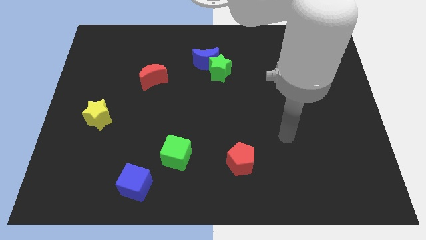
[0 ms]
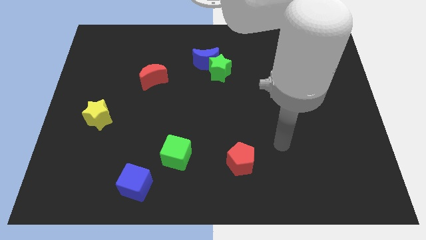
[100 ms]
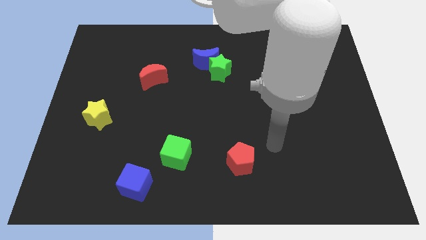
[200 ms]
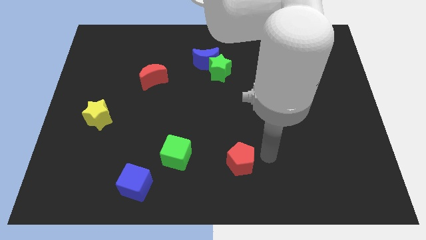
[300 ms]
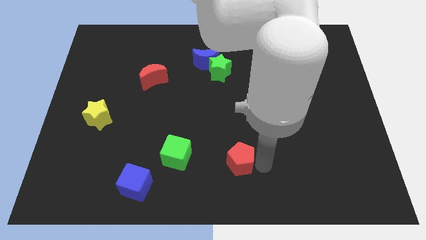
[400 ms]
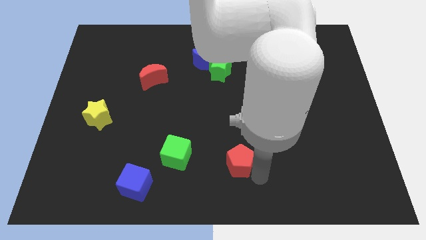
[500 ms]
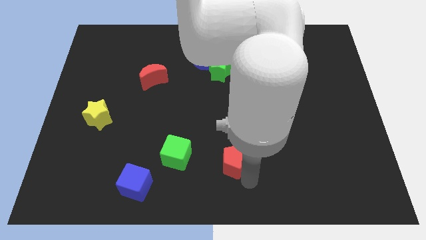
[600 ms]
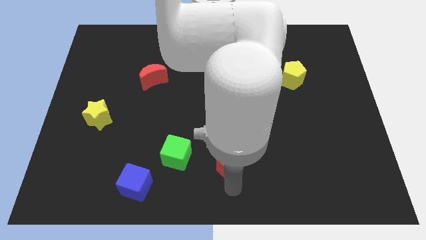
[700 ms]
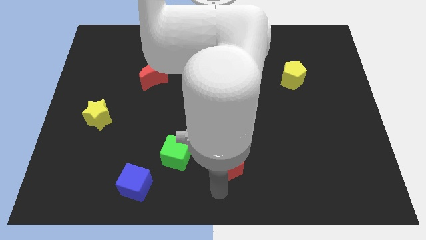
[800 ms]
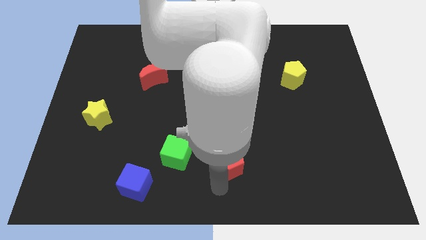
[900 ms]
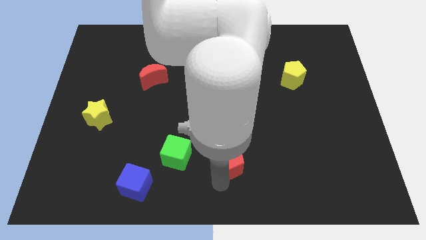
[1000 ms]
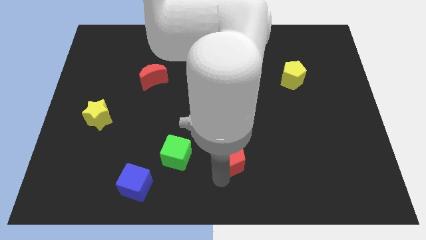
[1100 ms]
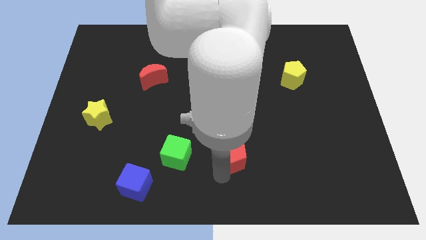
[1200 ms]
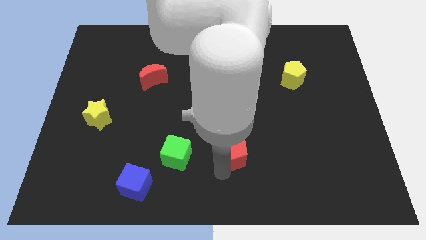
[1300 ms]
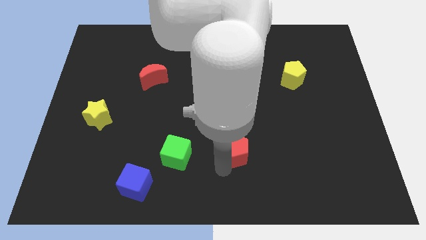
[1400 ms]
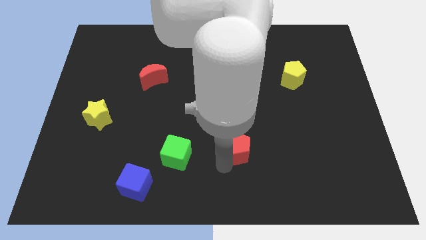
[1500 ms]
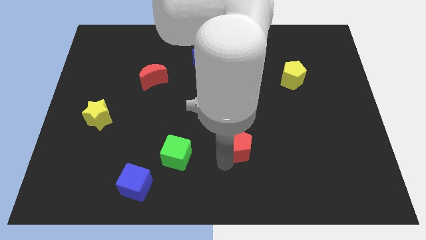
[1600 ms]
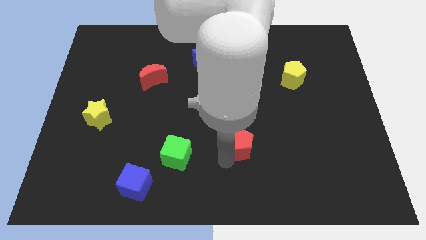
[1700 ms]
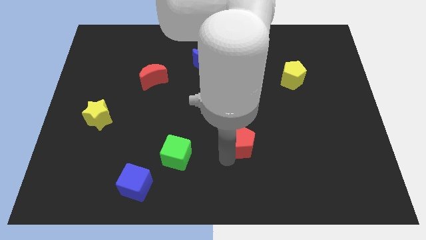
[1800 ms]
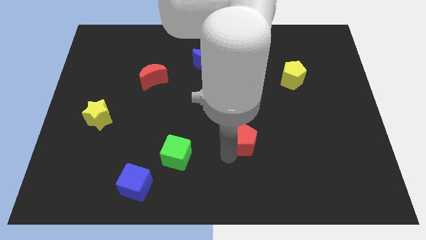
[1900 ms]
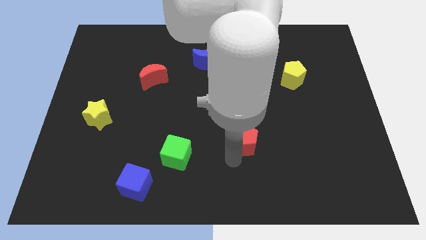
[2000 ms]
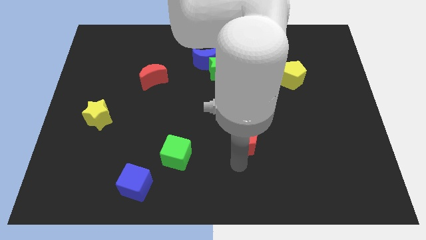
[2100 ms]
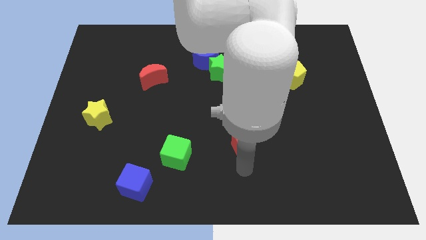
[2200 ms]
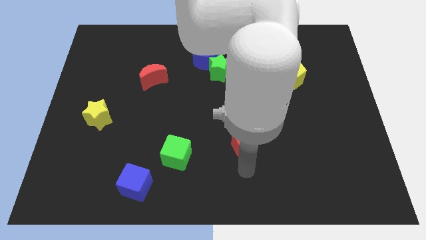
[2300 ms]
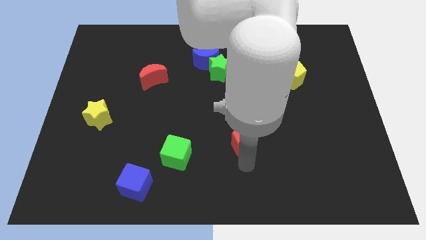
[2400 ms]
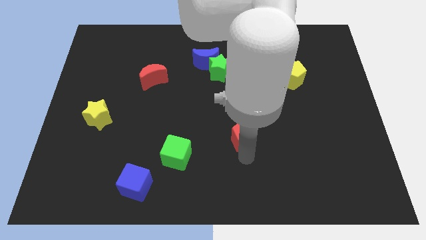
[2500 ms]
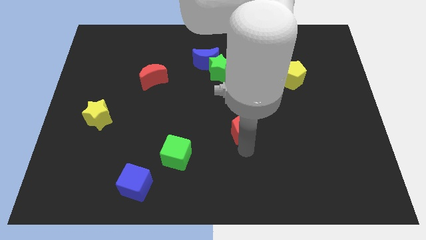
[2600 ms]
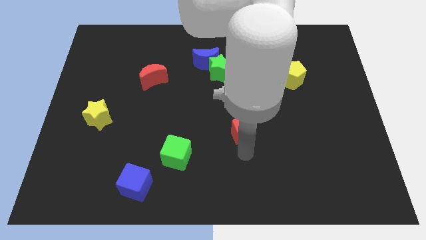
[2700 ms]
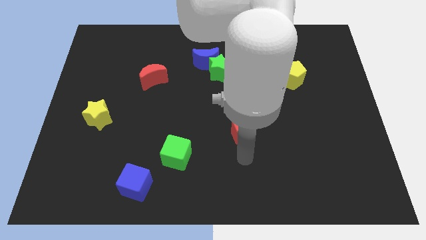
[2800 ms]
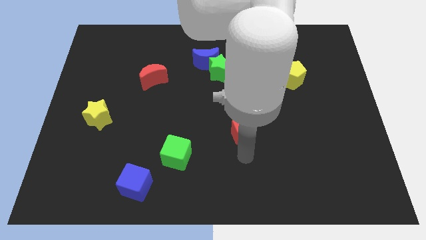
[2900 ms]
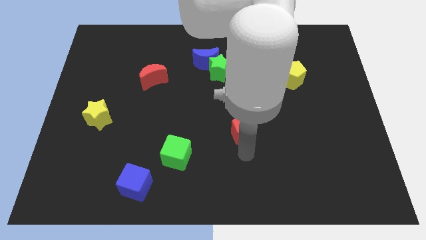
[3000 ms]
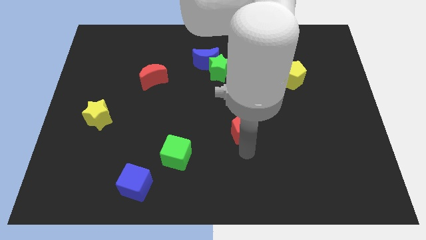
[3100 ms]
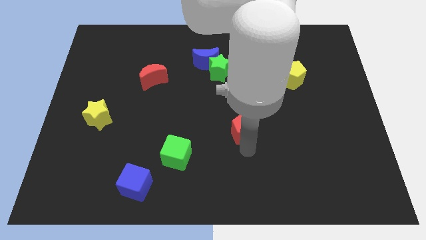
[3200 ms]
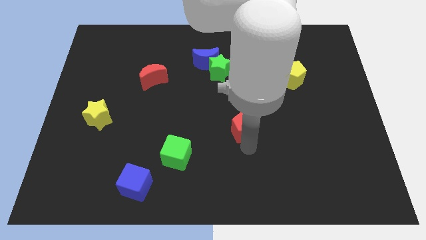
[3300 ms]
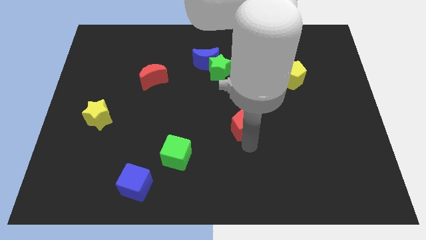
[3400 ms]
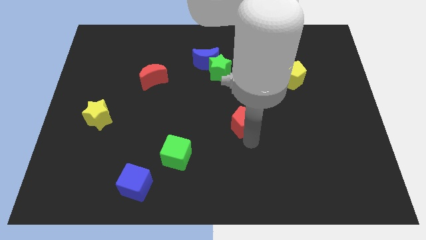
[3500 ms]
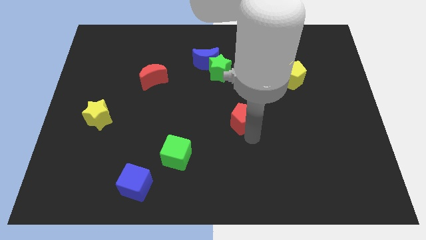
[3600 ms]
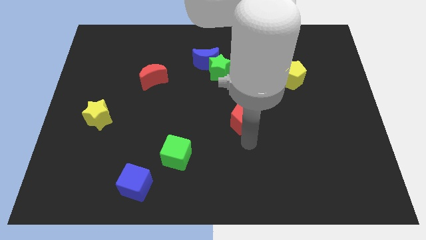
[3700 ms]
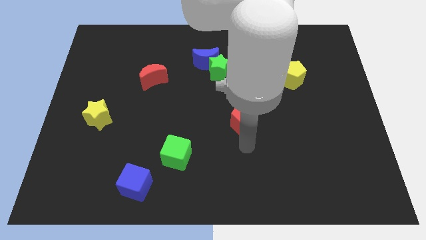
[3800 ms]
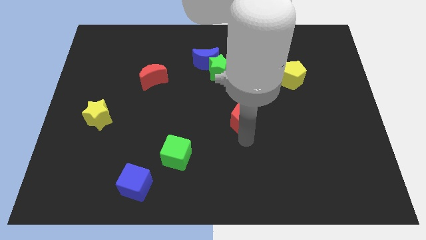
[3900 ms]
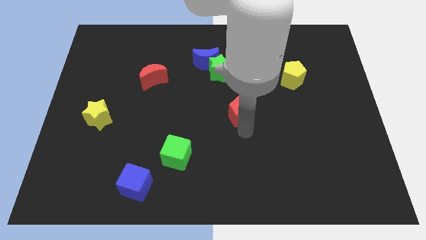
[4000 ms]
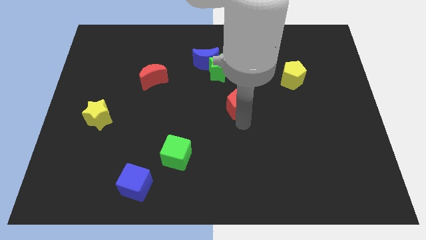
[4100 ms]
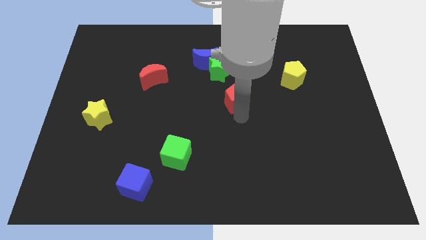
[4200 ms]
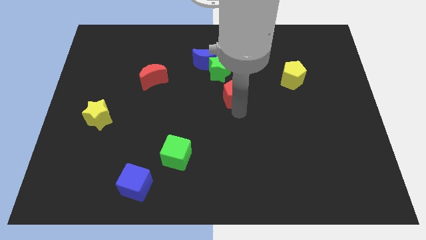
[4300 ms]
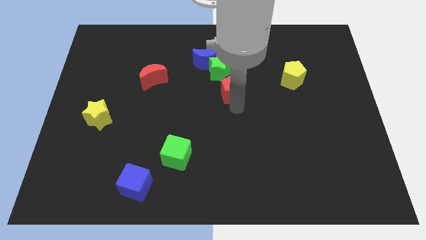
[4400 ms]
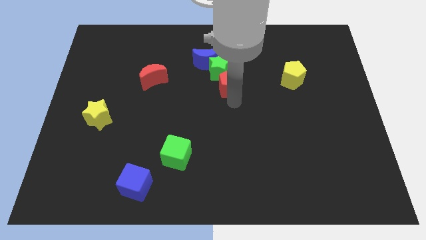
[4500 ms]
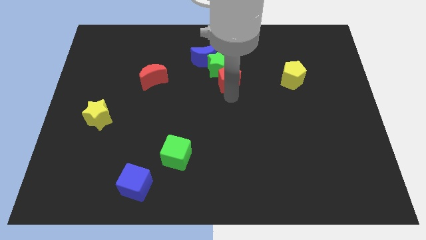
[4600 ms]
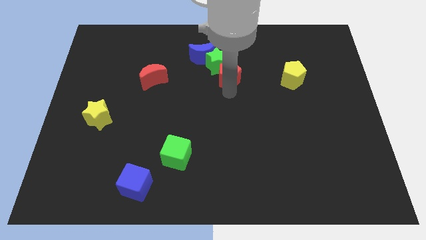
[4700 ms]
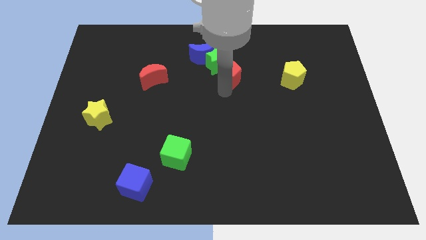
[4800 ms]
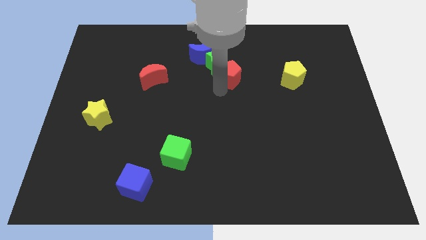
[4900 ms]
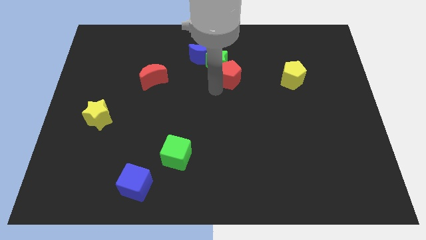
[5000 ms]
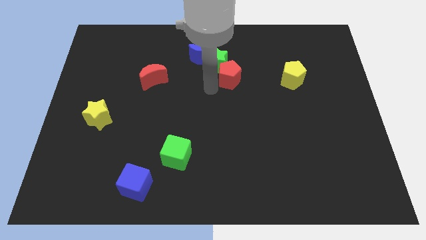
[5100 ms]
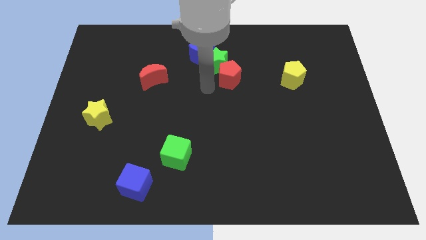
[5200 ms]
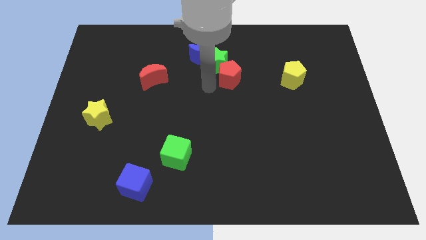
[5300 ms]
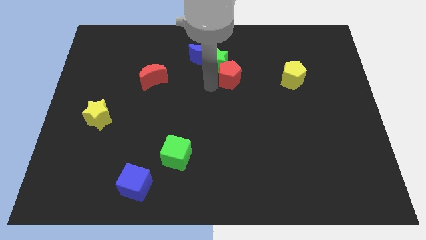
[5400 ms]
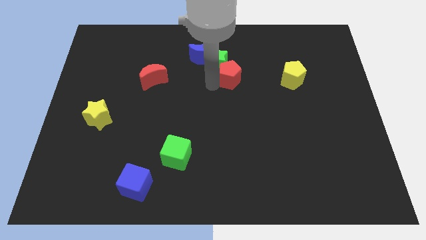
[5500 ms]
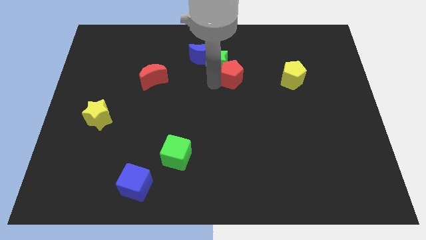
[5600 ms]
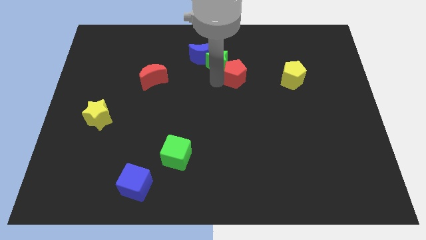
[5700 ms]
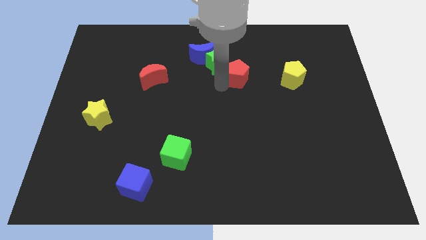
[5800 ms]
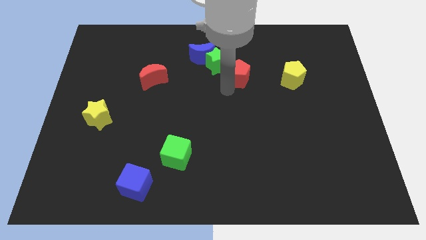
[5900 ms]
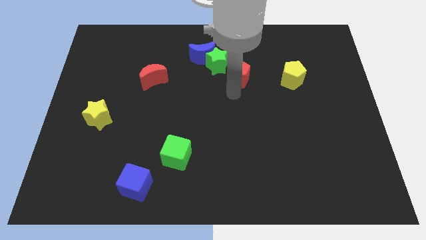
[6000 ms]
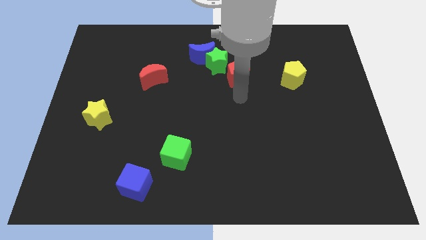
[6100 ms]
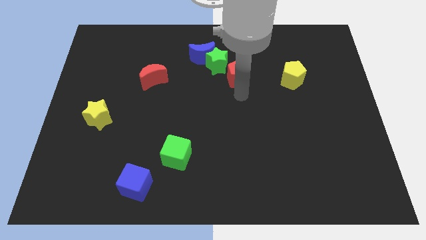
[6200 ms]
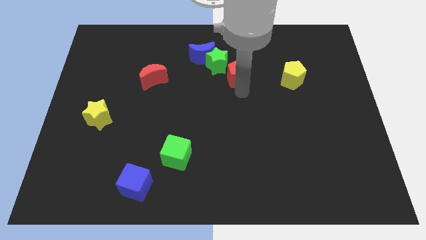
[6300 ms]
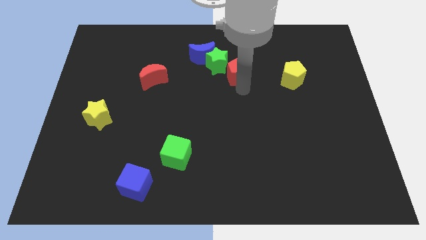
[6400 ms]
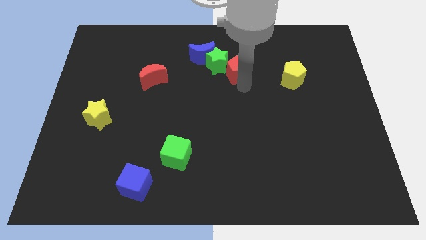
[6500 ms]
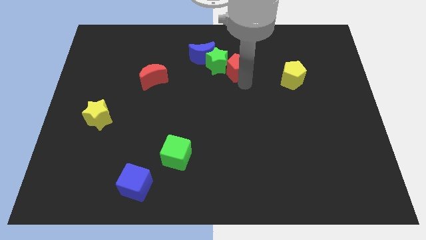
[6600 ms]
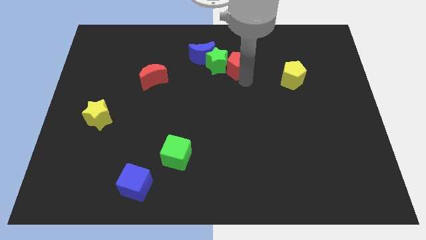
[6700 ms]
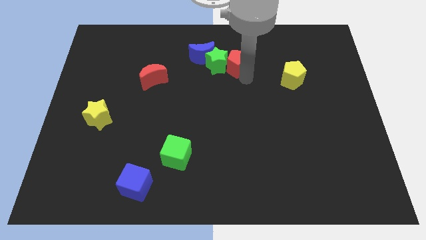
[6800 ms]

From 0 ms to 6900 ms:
slide the red pentagon to the top right side of the green star

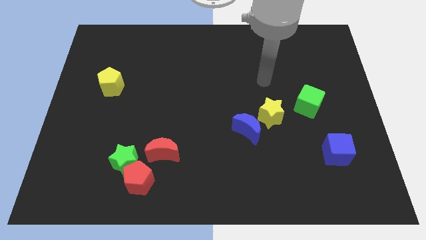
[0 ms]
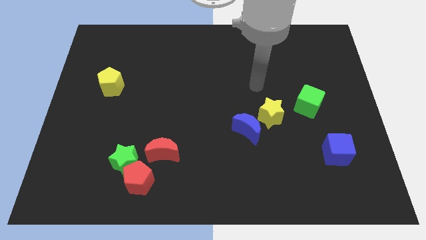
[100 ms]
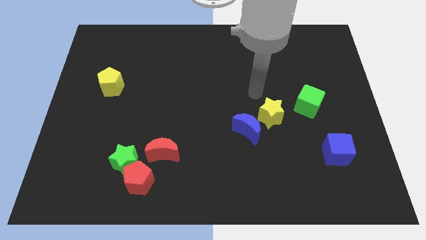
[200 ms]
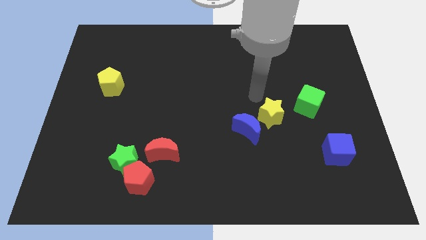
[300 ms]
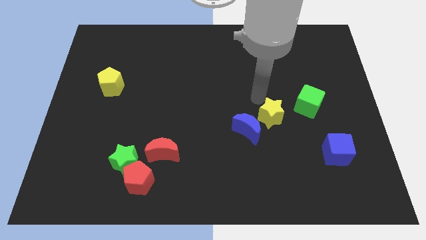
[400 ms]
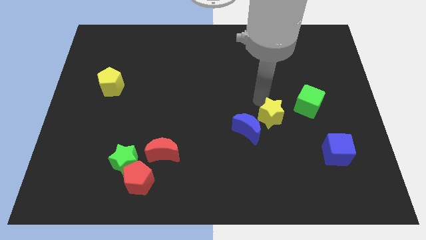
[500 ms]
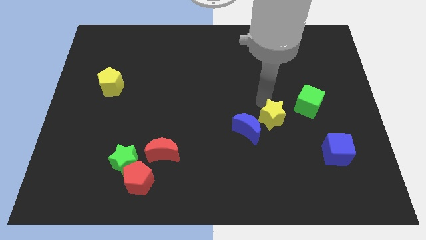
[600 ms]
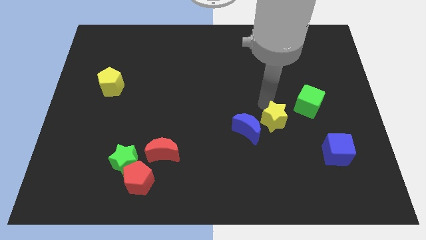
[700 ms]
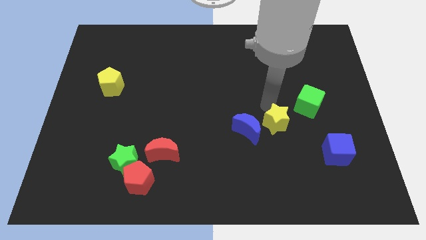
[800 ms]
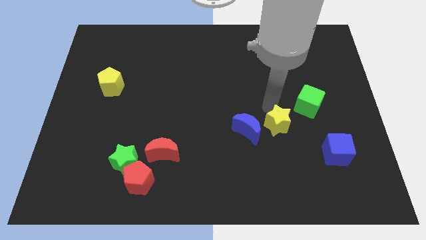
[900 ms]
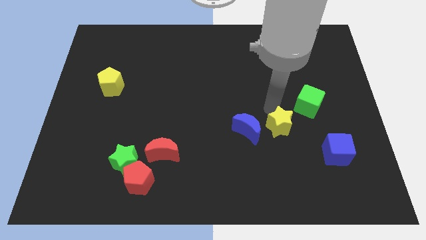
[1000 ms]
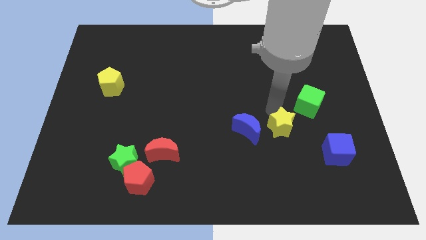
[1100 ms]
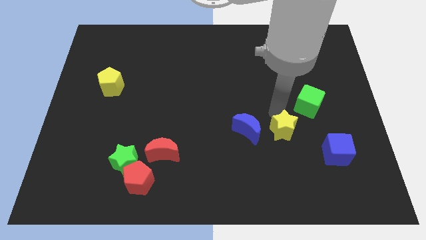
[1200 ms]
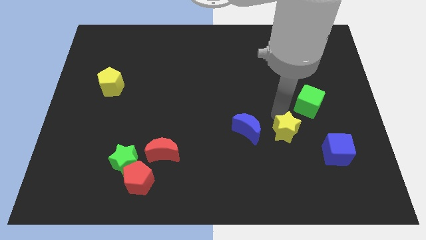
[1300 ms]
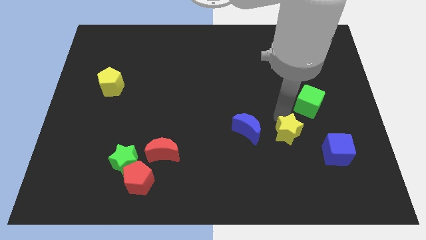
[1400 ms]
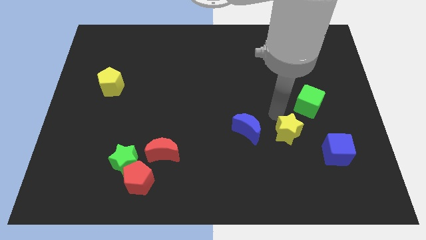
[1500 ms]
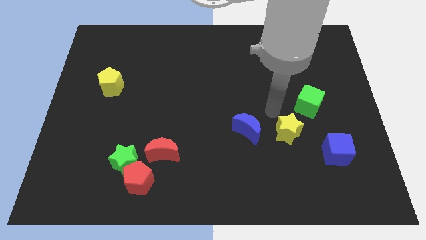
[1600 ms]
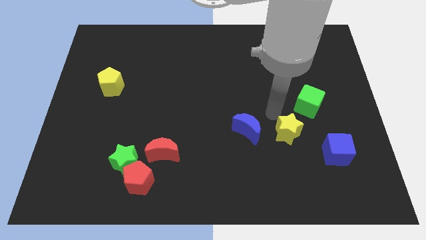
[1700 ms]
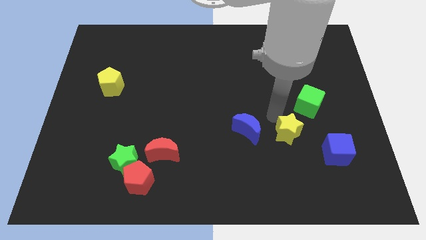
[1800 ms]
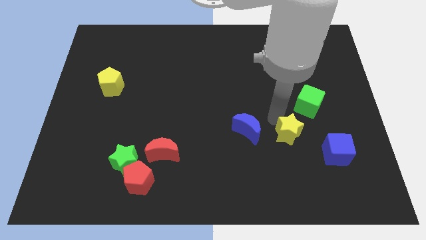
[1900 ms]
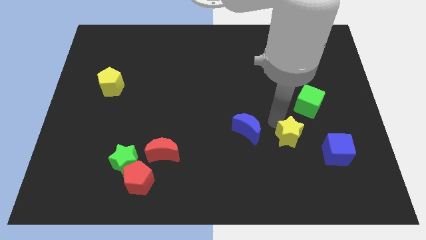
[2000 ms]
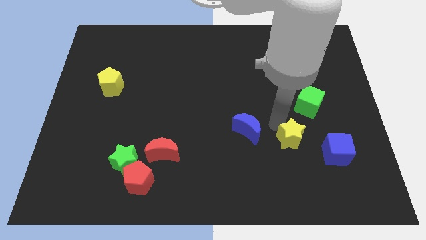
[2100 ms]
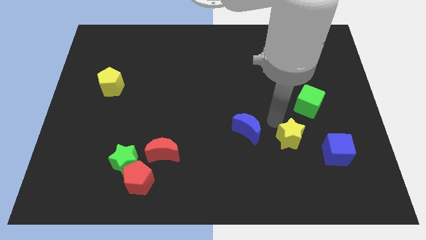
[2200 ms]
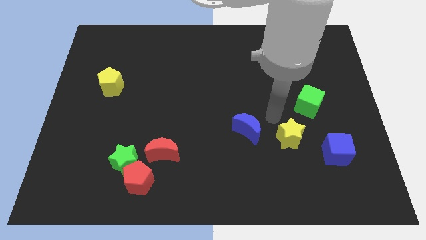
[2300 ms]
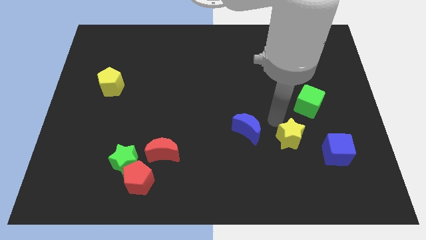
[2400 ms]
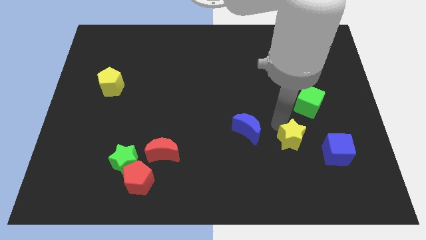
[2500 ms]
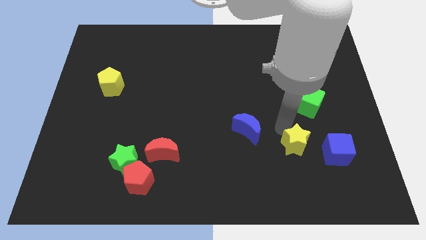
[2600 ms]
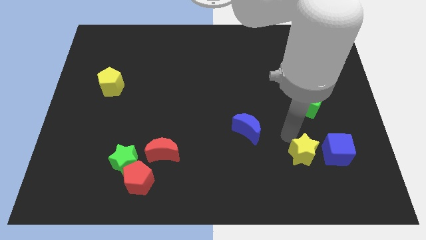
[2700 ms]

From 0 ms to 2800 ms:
put the yellow star diagonally down and to the left of the blue cube
